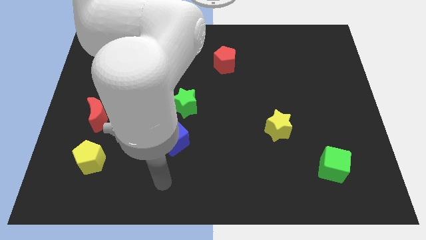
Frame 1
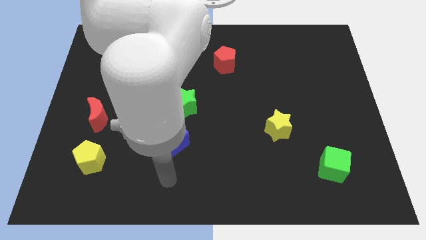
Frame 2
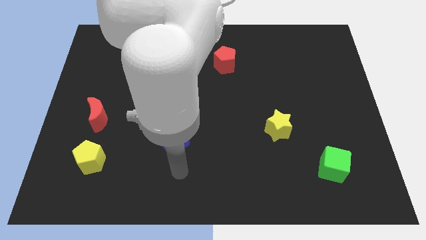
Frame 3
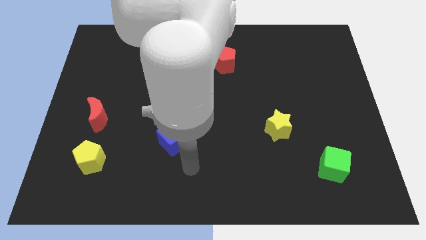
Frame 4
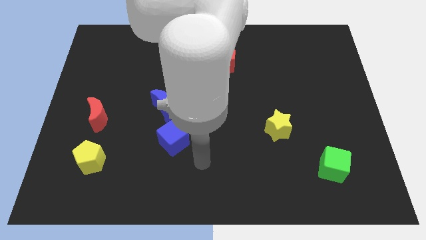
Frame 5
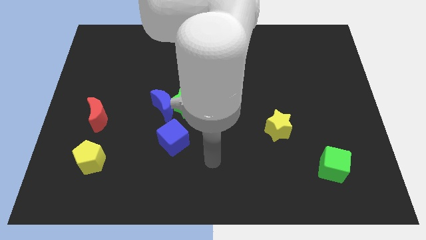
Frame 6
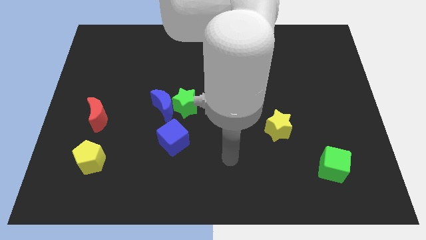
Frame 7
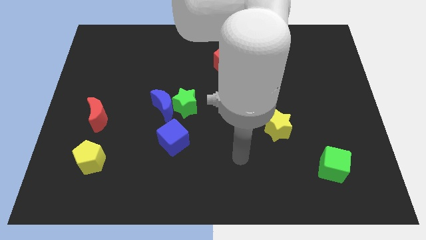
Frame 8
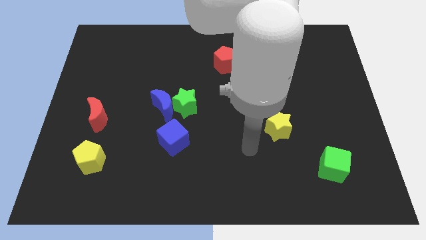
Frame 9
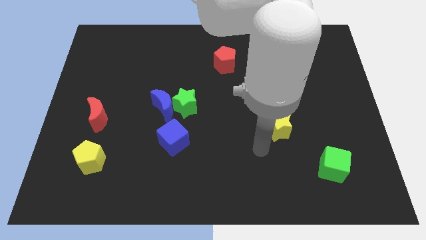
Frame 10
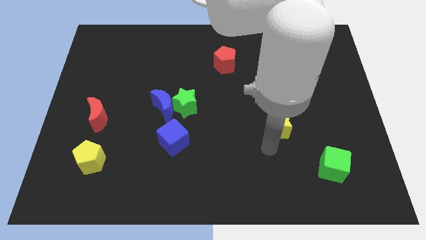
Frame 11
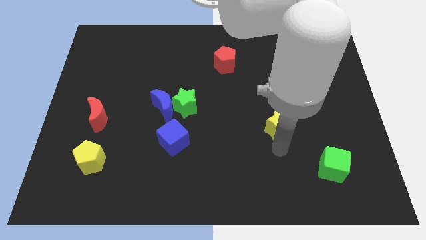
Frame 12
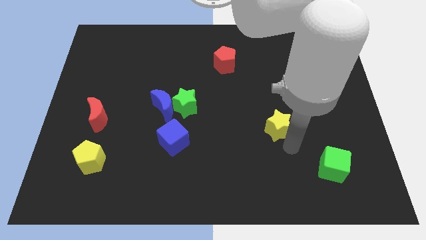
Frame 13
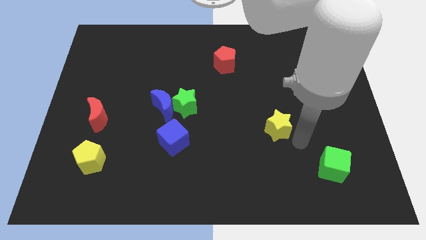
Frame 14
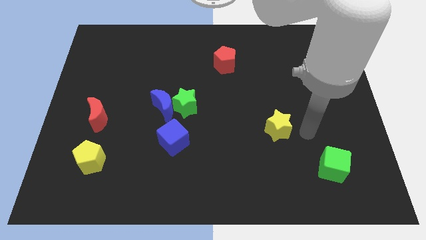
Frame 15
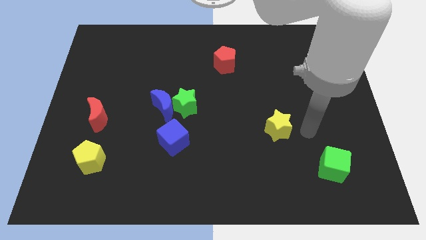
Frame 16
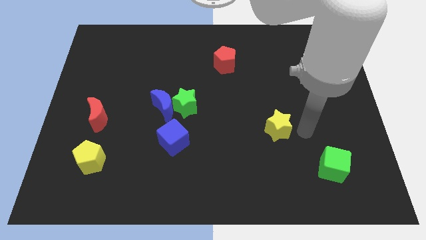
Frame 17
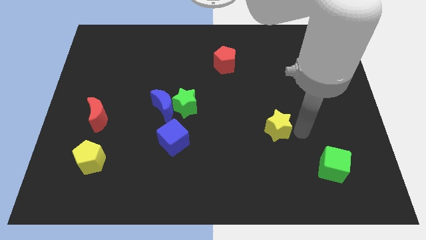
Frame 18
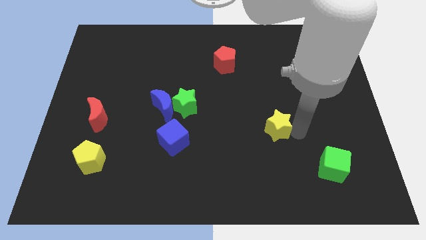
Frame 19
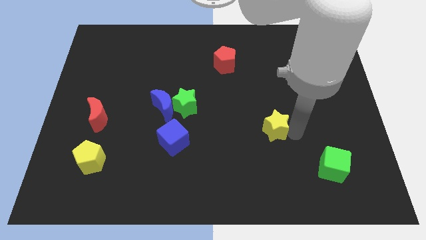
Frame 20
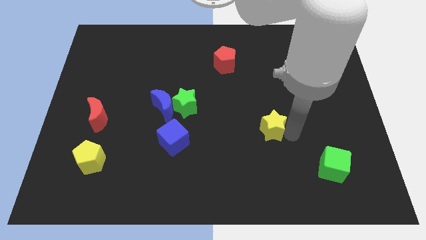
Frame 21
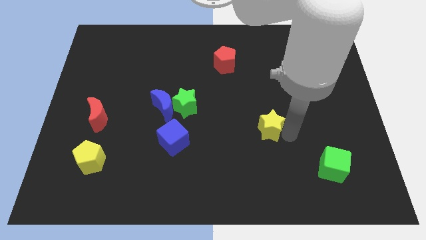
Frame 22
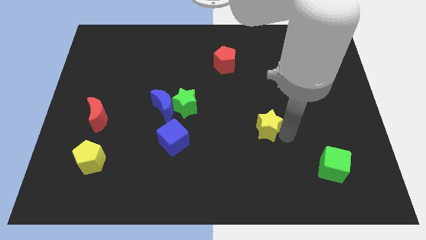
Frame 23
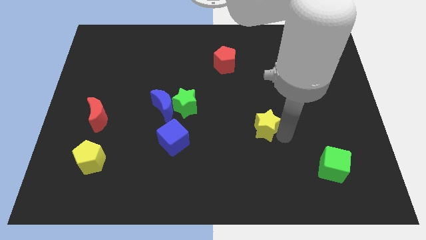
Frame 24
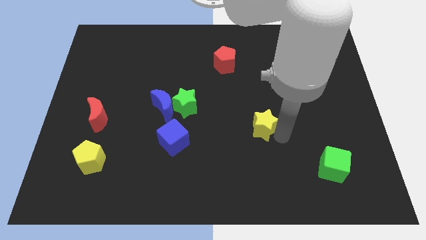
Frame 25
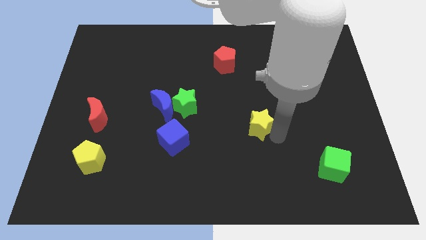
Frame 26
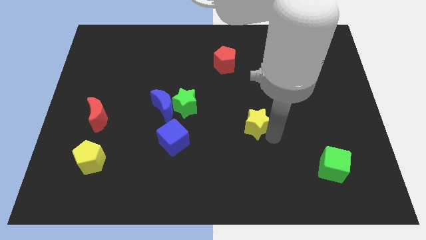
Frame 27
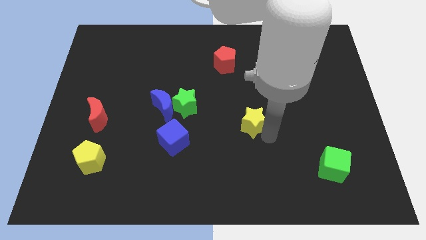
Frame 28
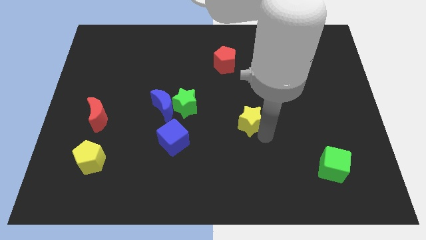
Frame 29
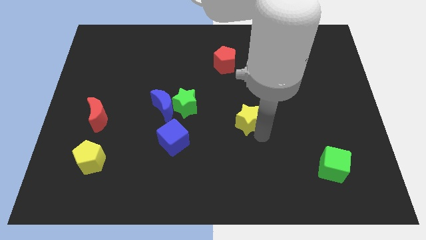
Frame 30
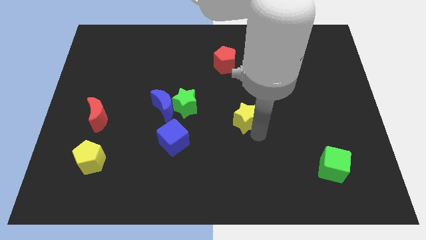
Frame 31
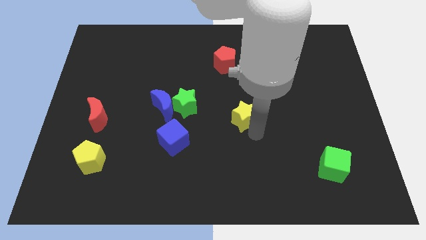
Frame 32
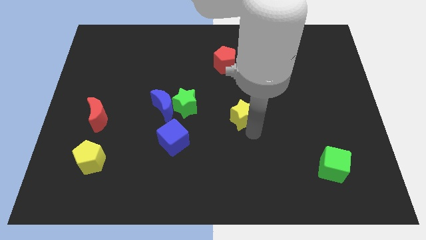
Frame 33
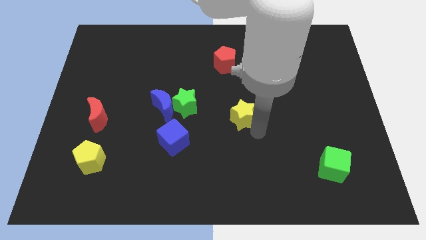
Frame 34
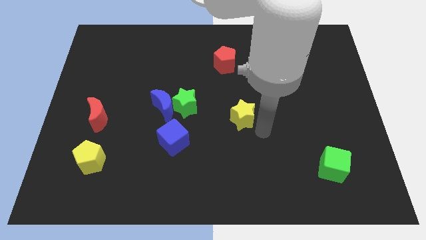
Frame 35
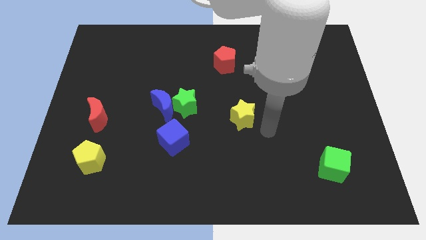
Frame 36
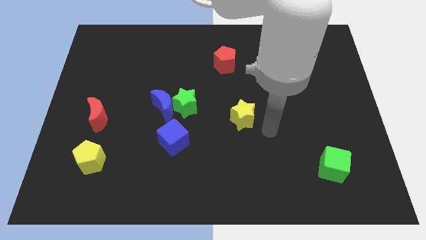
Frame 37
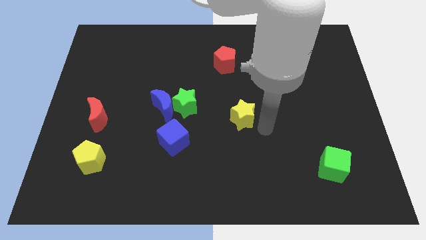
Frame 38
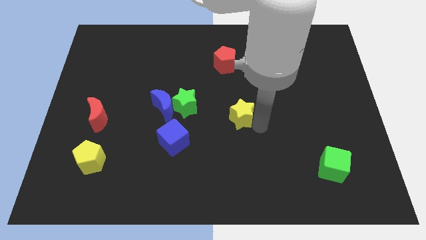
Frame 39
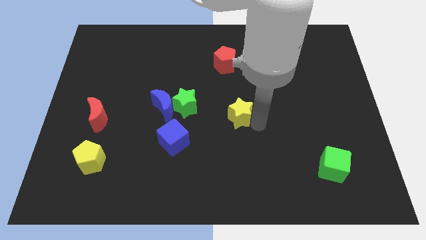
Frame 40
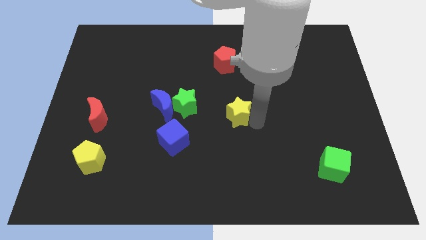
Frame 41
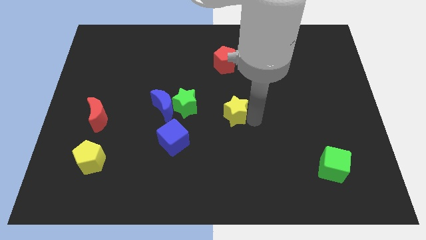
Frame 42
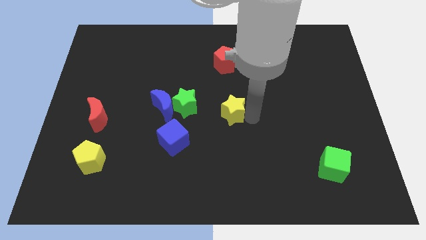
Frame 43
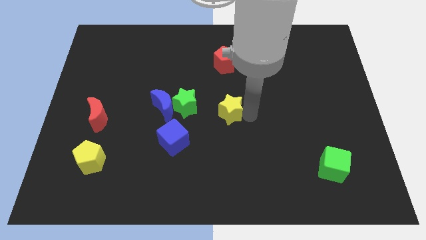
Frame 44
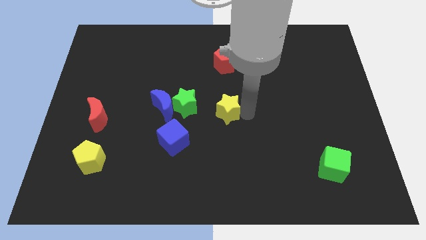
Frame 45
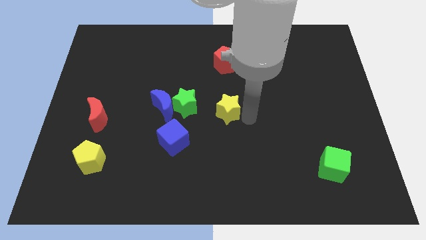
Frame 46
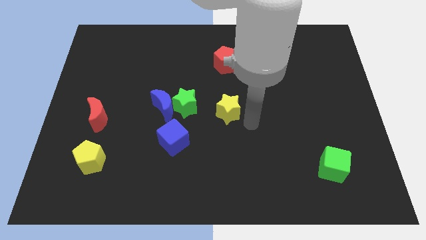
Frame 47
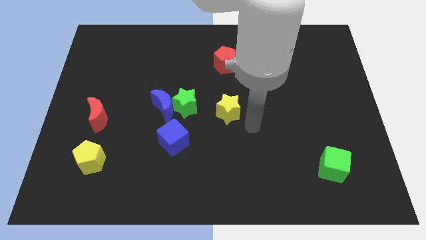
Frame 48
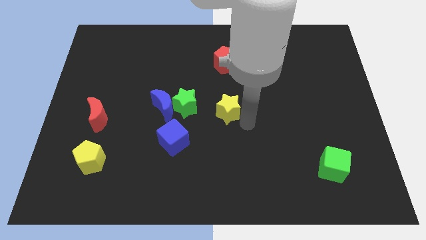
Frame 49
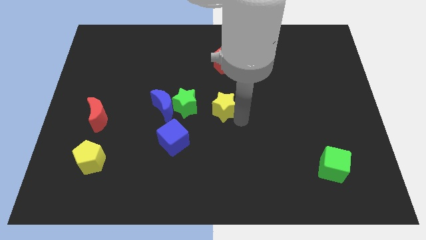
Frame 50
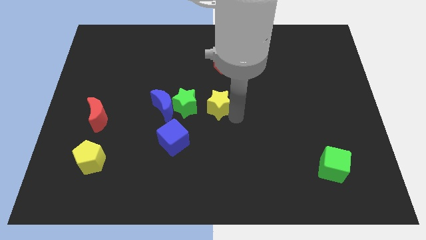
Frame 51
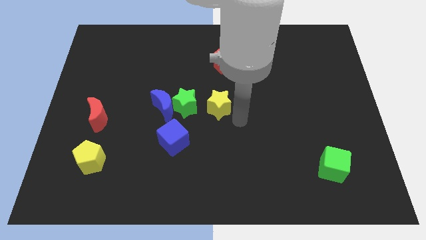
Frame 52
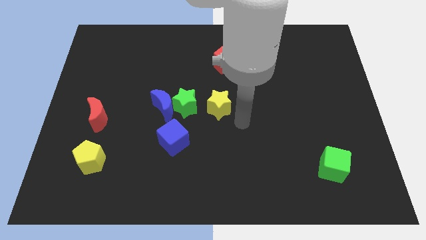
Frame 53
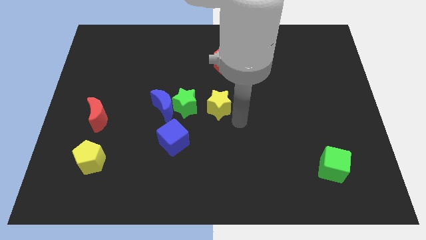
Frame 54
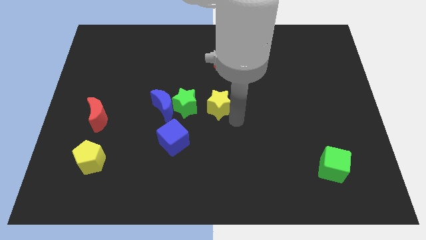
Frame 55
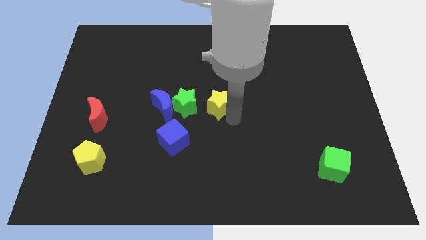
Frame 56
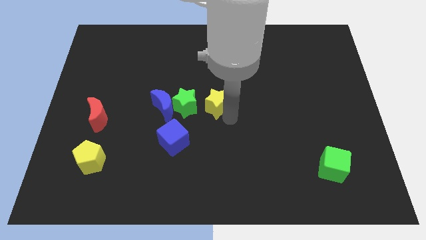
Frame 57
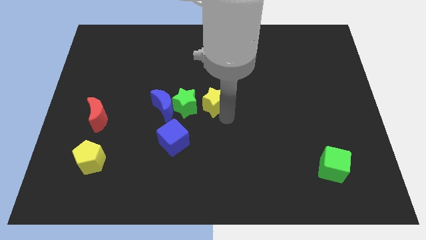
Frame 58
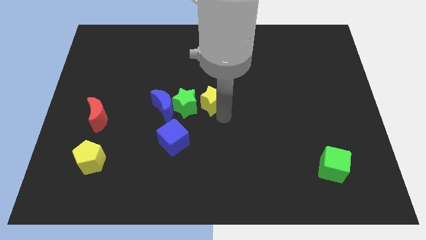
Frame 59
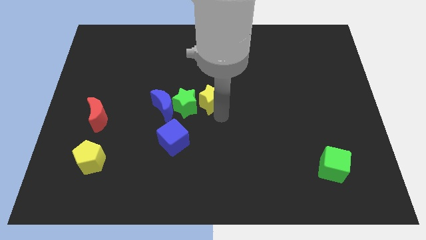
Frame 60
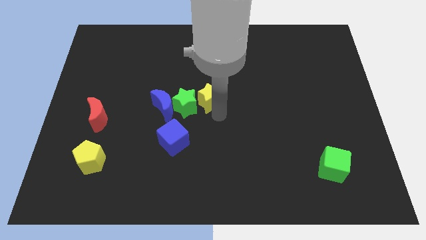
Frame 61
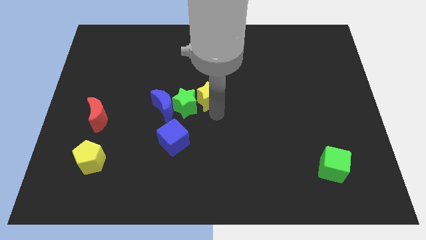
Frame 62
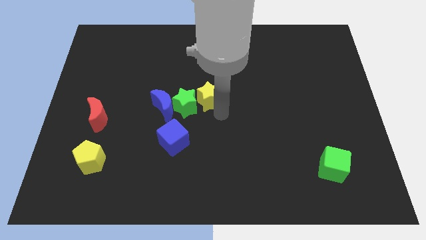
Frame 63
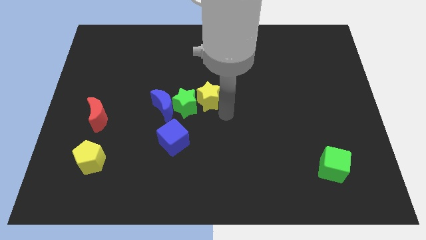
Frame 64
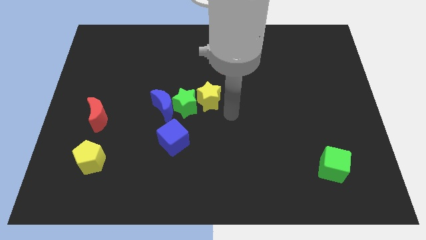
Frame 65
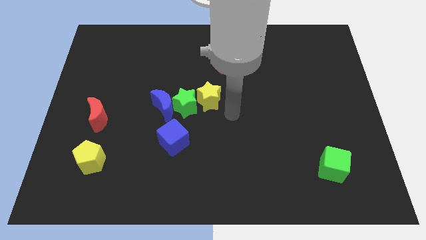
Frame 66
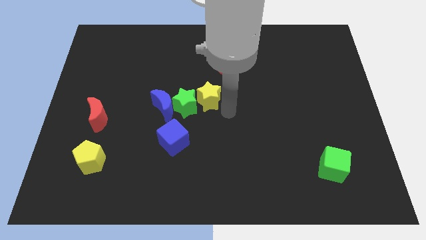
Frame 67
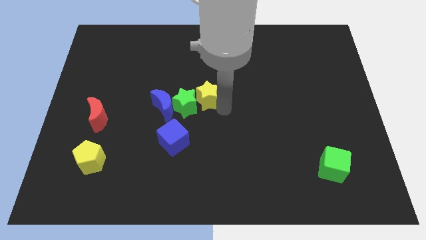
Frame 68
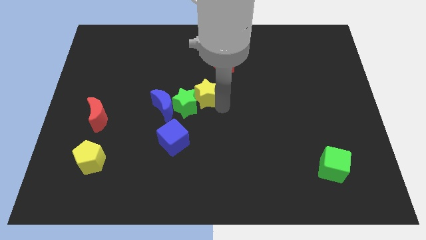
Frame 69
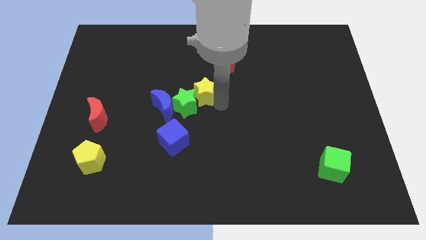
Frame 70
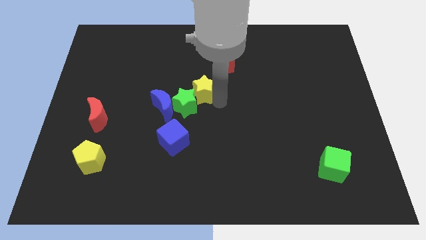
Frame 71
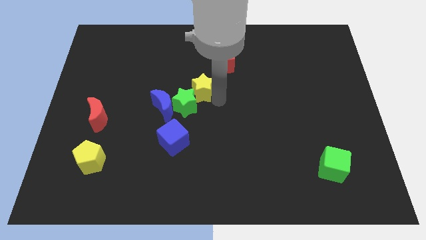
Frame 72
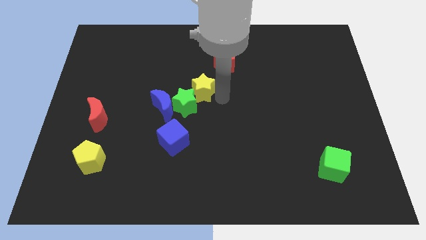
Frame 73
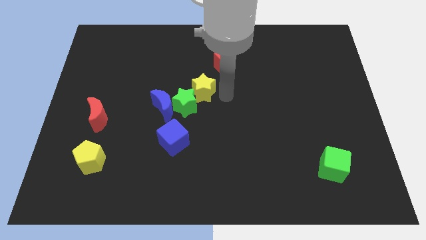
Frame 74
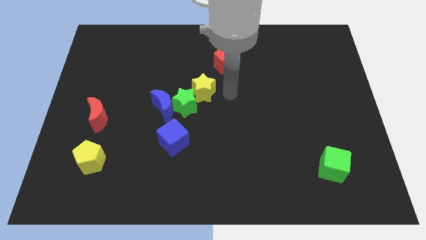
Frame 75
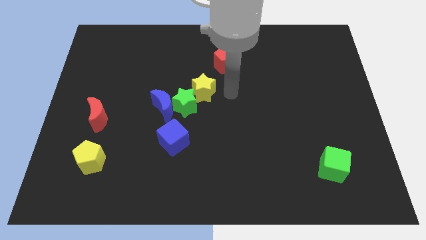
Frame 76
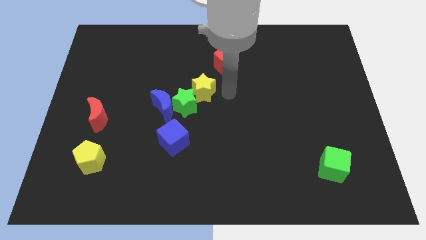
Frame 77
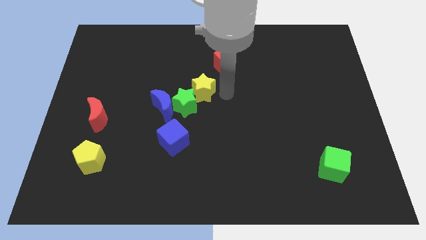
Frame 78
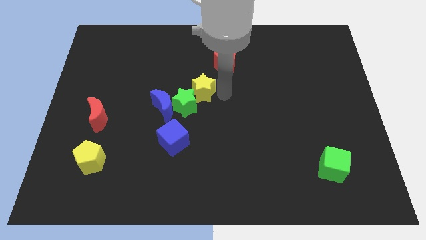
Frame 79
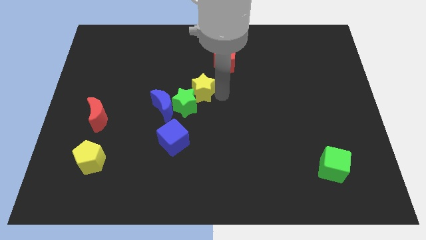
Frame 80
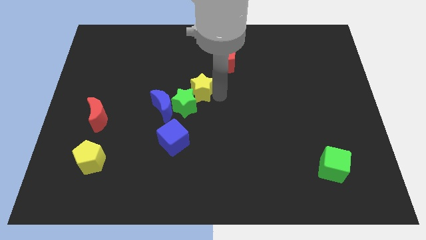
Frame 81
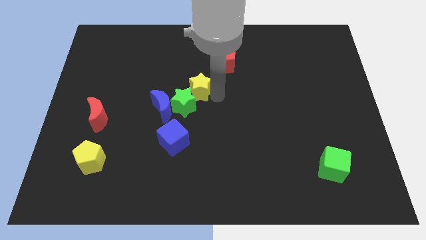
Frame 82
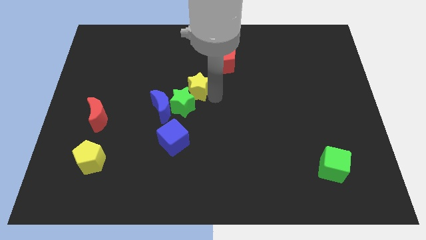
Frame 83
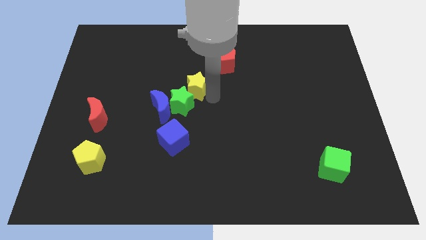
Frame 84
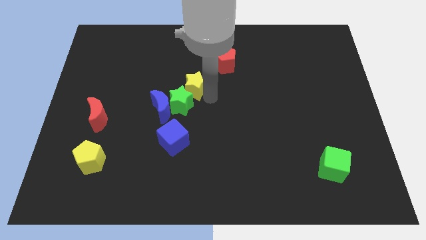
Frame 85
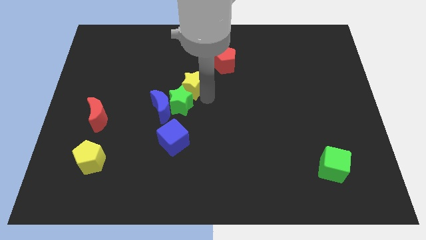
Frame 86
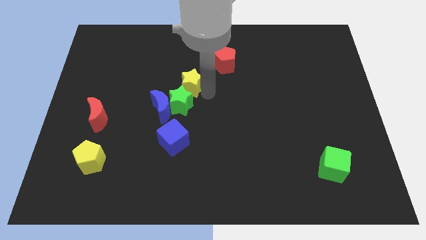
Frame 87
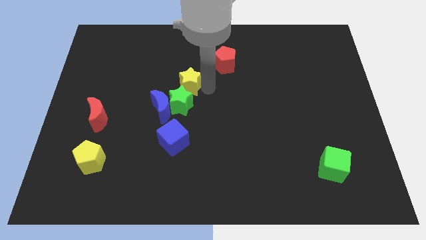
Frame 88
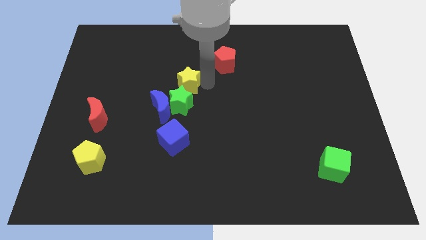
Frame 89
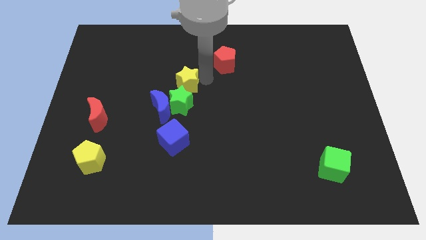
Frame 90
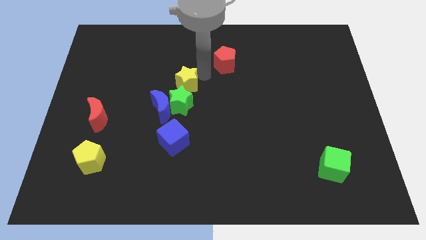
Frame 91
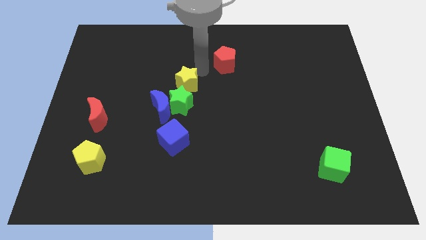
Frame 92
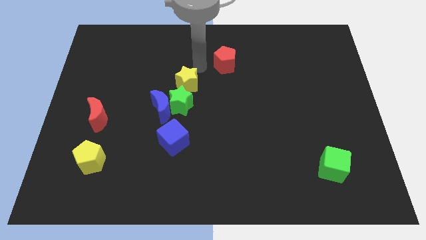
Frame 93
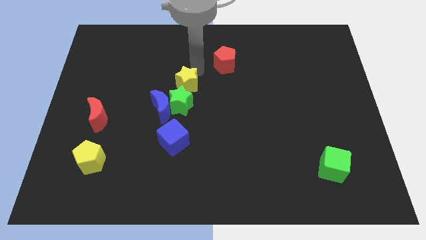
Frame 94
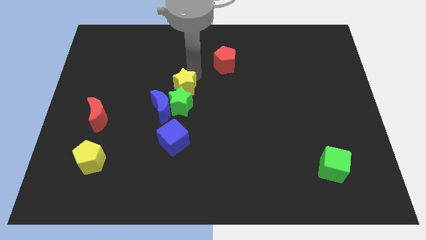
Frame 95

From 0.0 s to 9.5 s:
put the yellow star to the top of the blue cube
